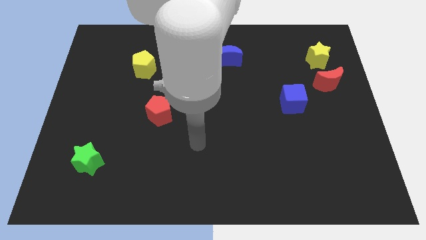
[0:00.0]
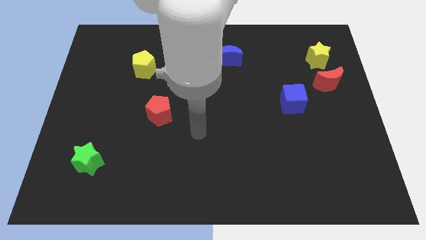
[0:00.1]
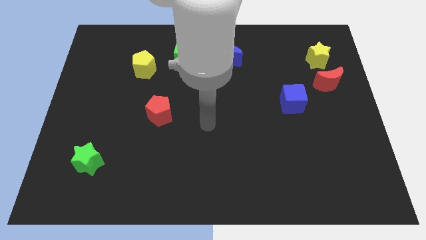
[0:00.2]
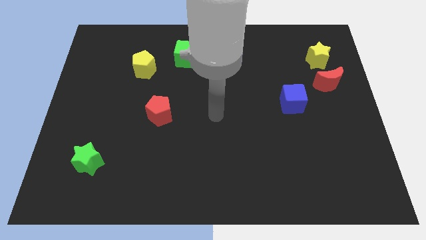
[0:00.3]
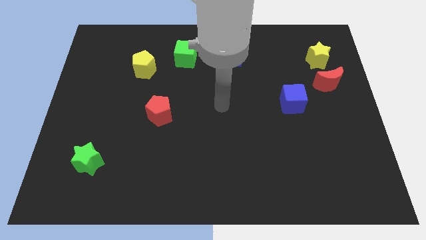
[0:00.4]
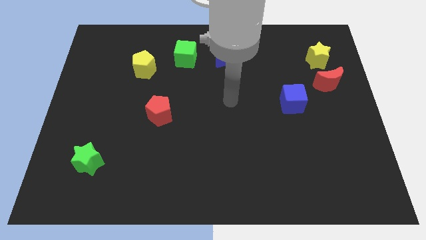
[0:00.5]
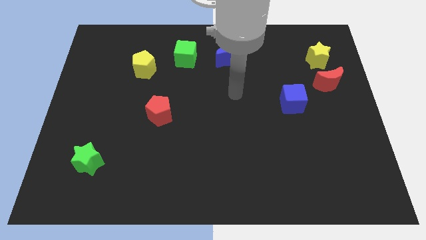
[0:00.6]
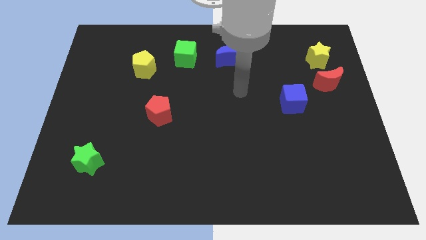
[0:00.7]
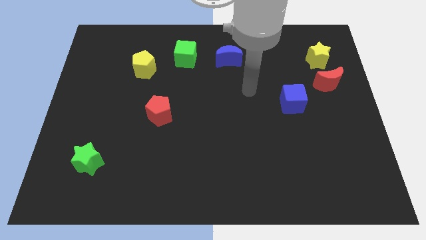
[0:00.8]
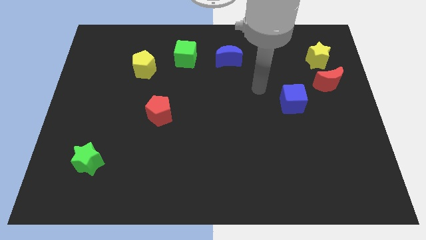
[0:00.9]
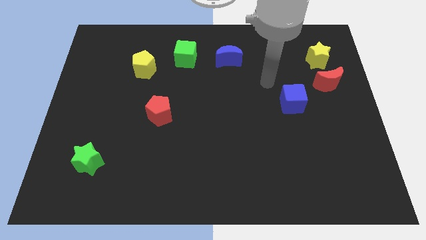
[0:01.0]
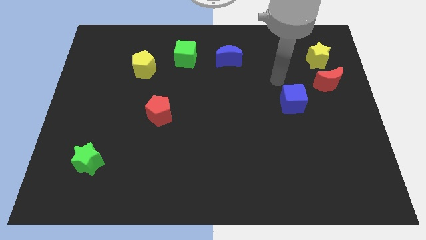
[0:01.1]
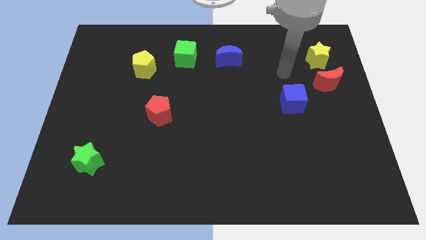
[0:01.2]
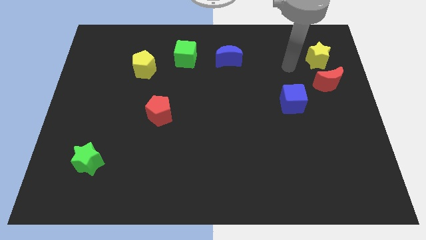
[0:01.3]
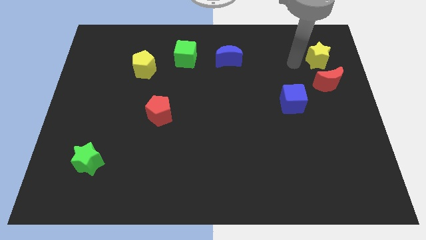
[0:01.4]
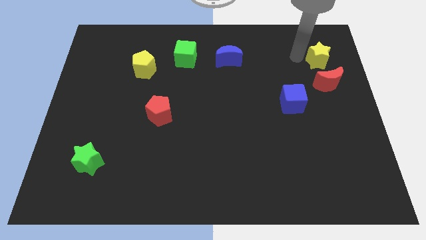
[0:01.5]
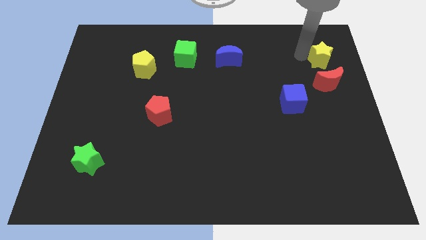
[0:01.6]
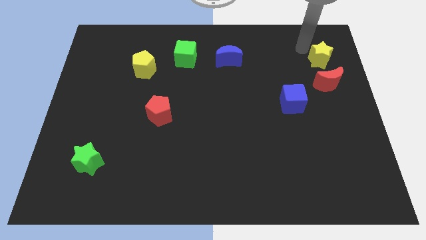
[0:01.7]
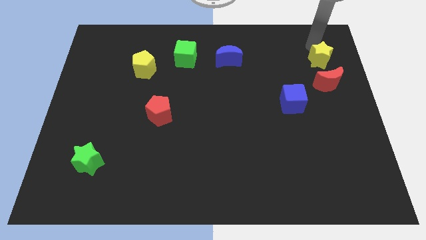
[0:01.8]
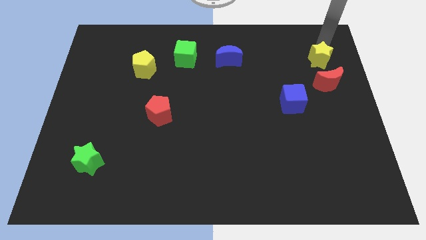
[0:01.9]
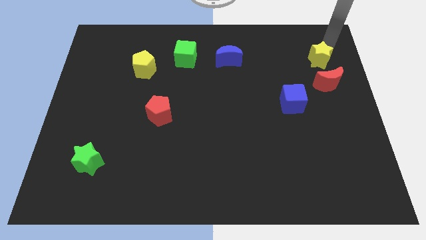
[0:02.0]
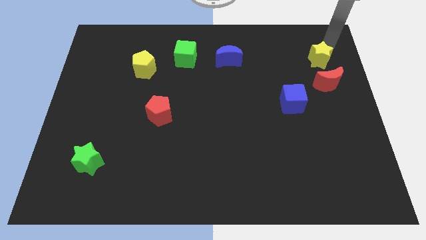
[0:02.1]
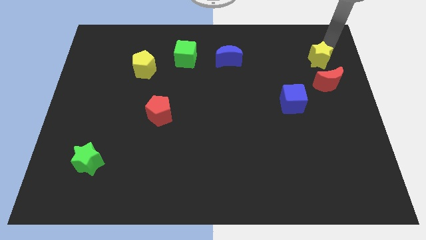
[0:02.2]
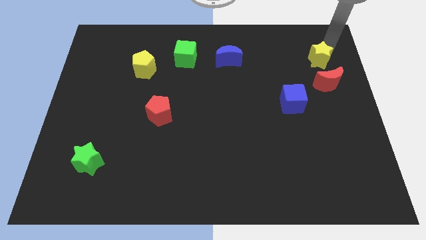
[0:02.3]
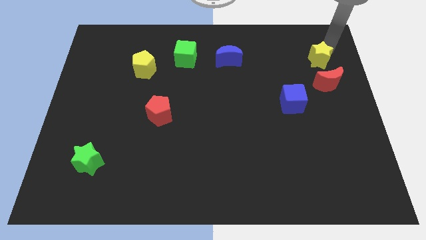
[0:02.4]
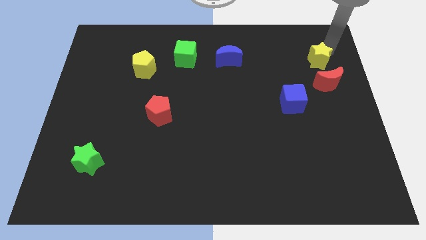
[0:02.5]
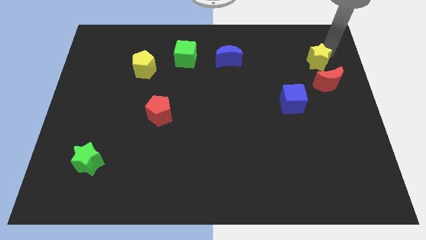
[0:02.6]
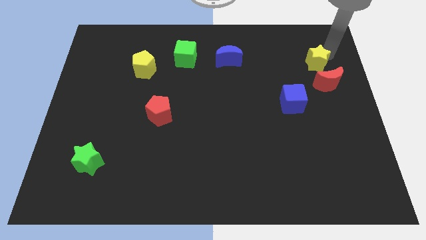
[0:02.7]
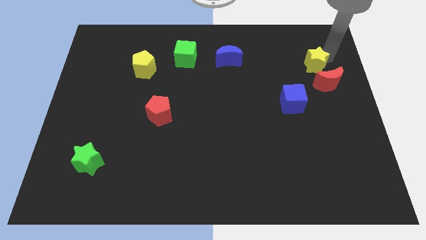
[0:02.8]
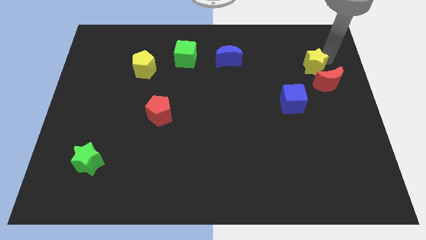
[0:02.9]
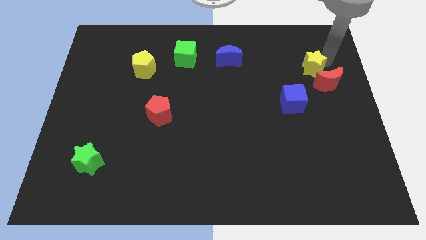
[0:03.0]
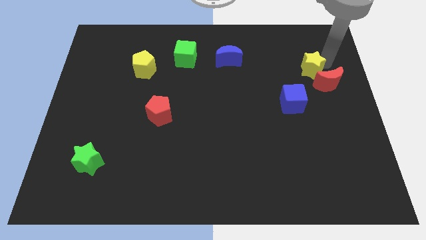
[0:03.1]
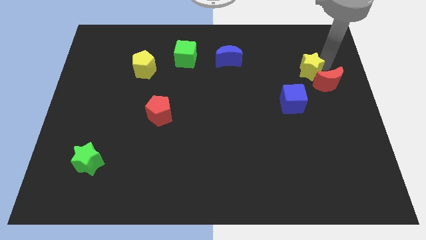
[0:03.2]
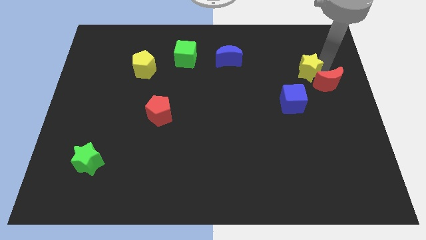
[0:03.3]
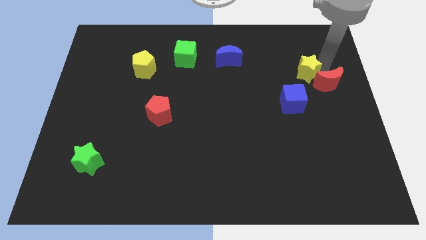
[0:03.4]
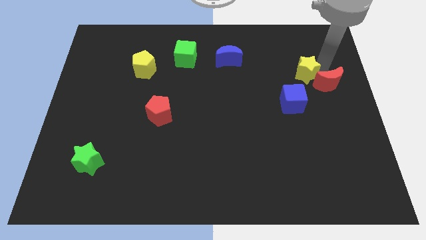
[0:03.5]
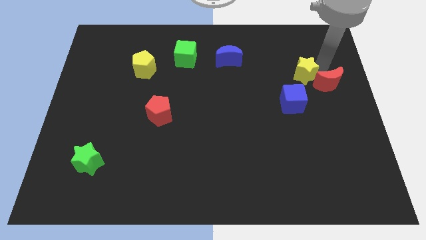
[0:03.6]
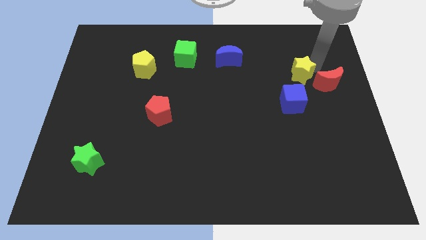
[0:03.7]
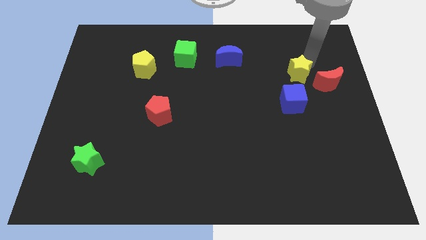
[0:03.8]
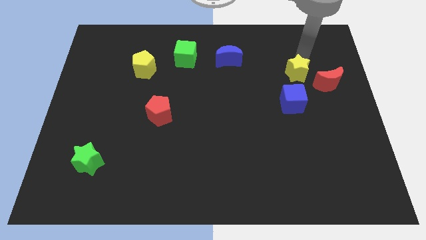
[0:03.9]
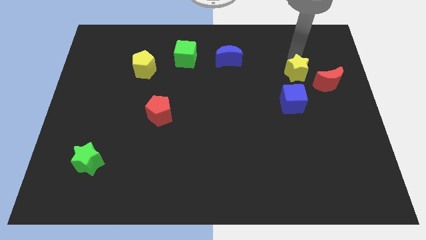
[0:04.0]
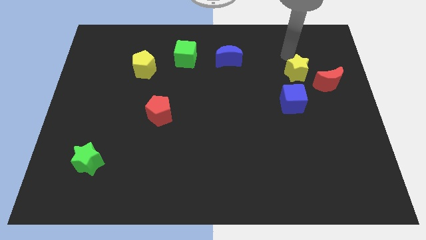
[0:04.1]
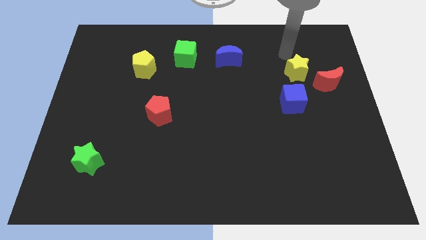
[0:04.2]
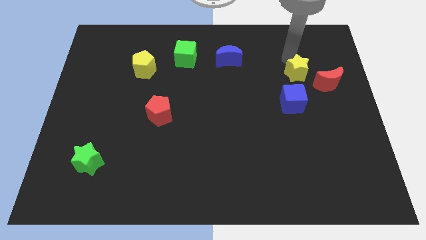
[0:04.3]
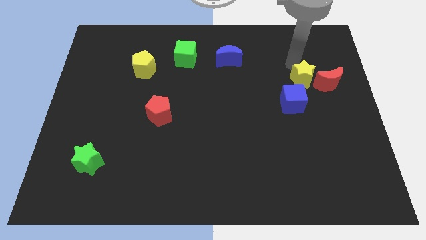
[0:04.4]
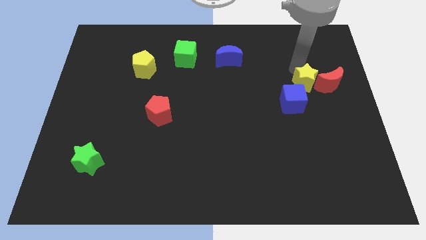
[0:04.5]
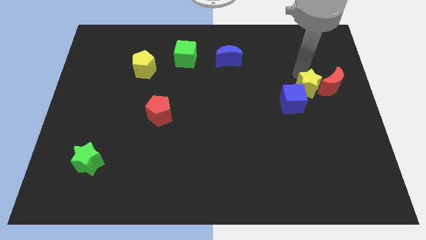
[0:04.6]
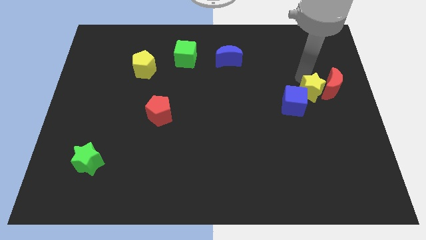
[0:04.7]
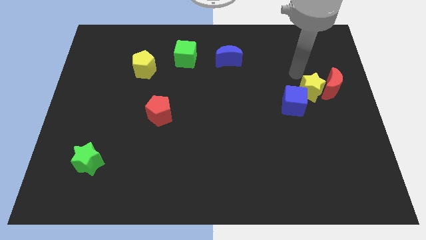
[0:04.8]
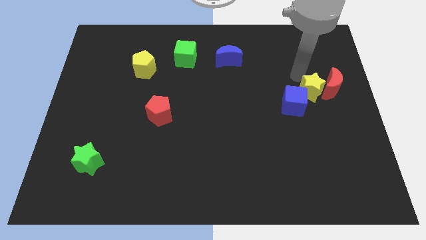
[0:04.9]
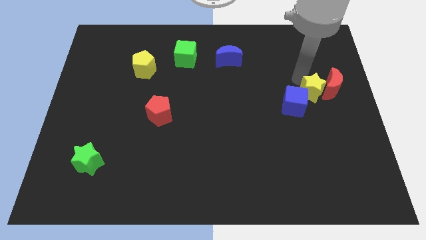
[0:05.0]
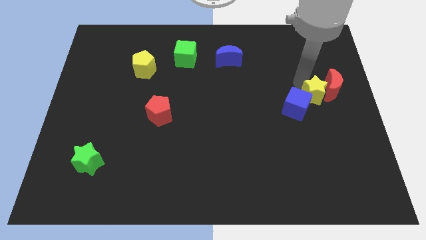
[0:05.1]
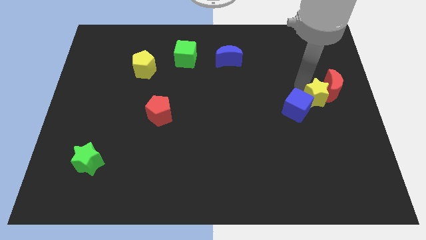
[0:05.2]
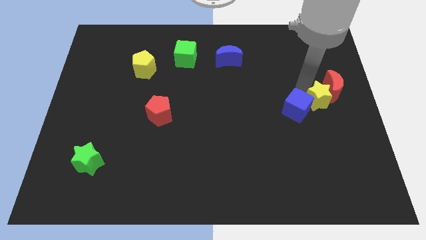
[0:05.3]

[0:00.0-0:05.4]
put the yellow star below the red moon

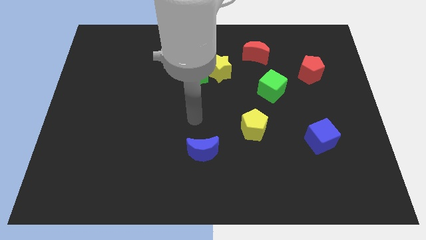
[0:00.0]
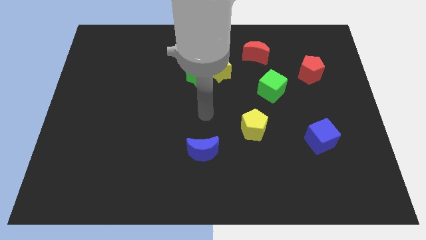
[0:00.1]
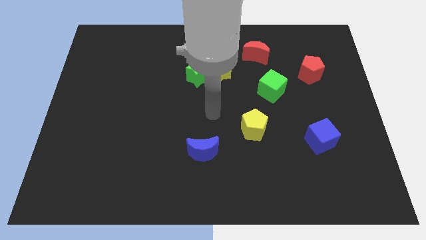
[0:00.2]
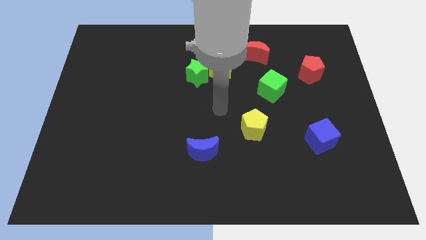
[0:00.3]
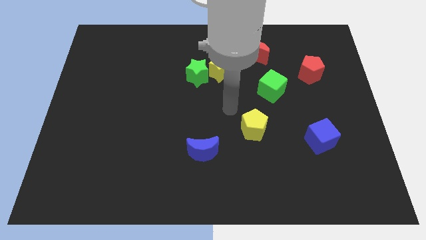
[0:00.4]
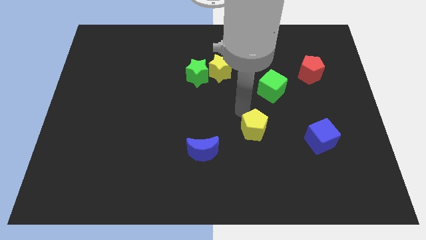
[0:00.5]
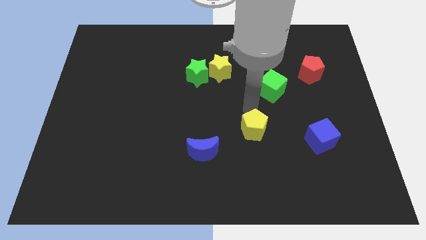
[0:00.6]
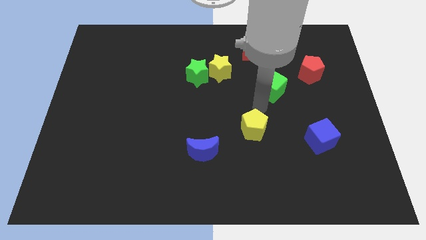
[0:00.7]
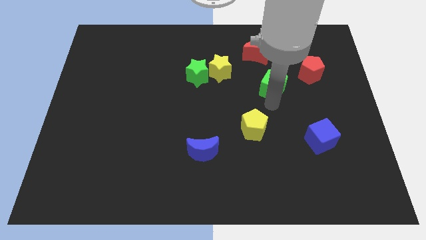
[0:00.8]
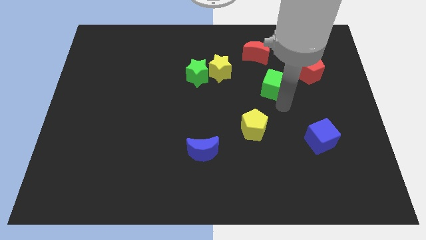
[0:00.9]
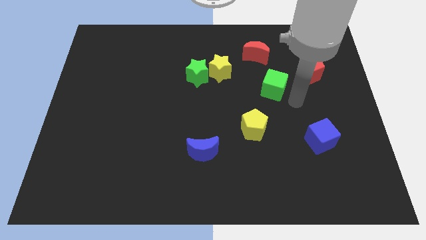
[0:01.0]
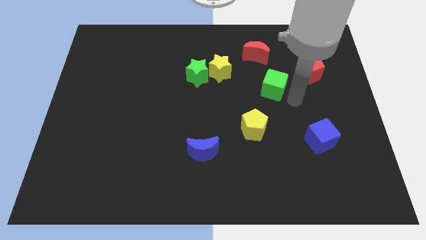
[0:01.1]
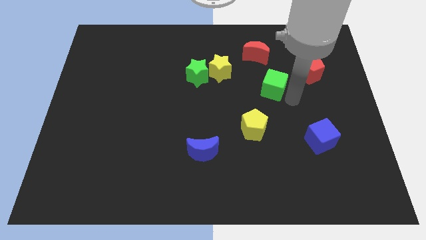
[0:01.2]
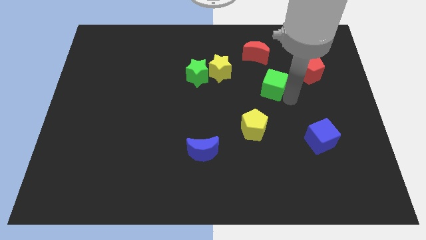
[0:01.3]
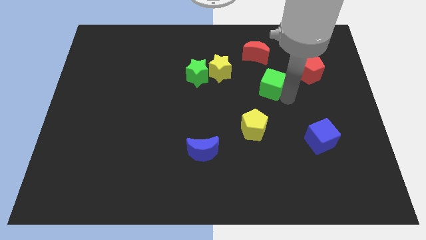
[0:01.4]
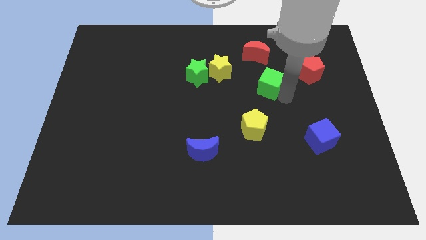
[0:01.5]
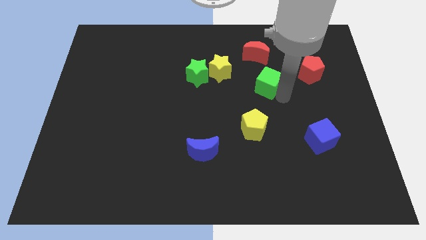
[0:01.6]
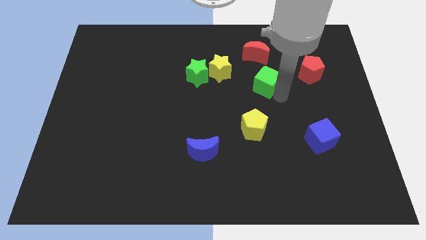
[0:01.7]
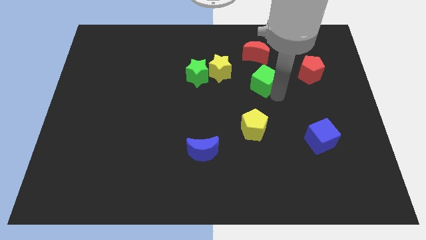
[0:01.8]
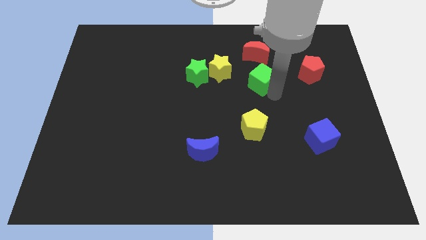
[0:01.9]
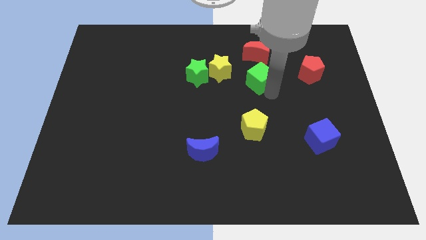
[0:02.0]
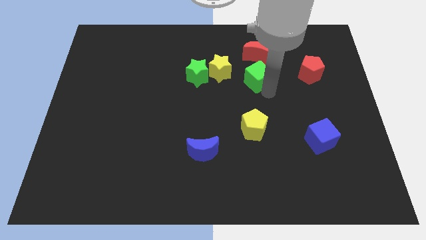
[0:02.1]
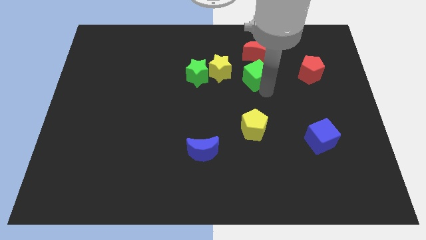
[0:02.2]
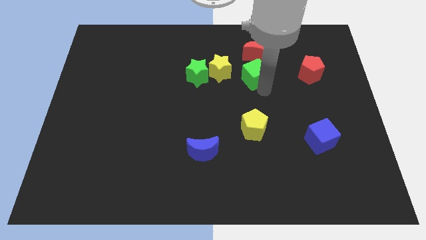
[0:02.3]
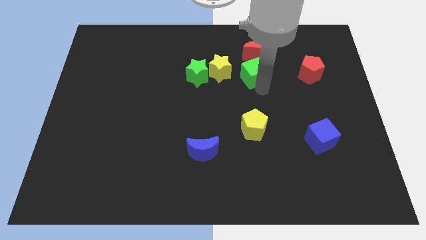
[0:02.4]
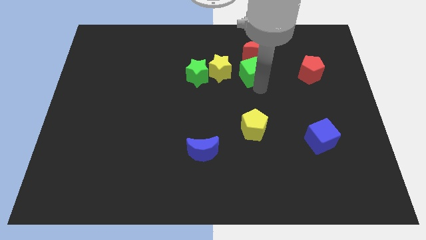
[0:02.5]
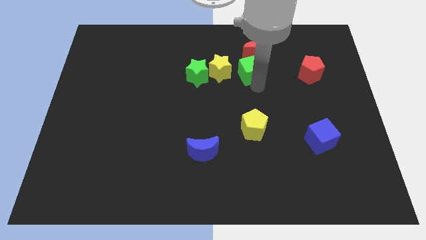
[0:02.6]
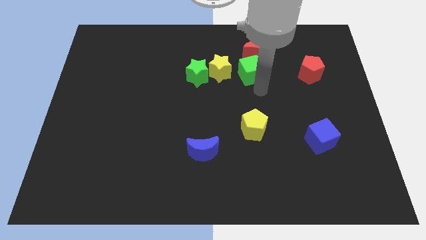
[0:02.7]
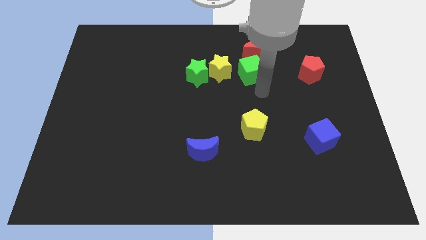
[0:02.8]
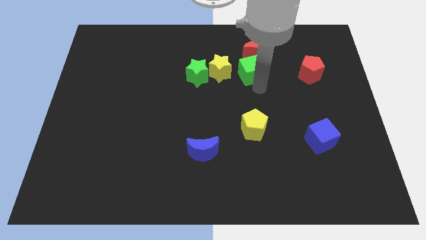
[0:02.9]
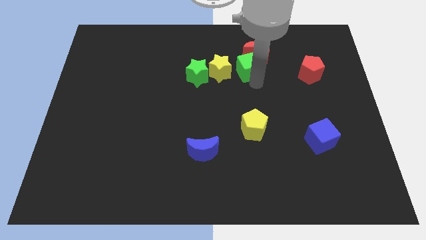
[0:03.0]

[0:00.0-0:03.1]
slide the green cube to the top right side of the yellow star
